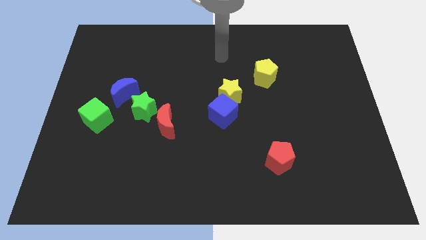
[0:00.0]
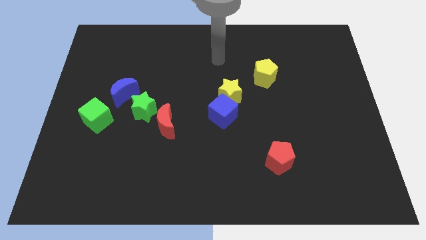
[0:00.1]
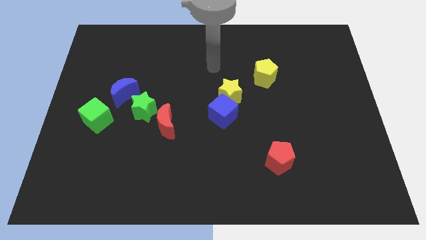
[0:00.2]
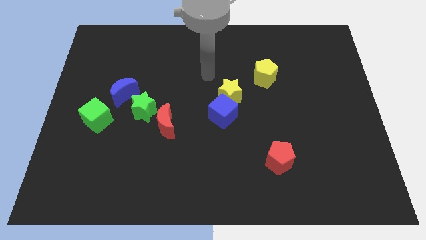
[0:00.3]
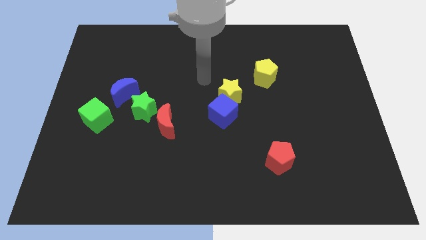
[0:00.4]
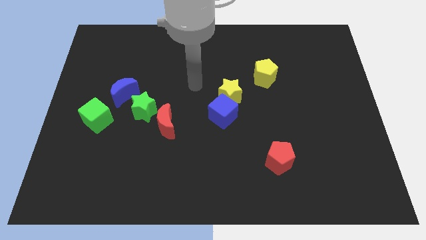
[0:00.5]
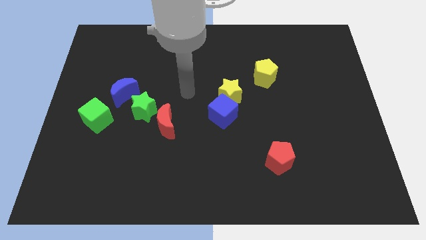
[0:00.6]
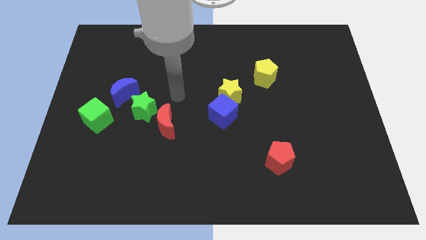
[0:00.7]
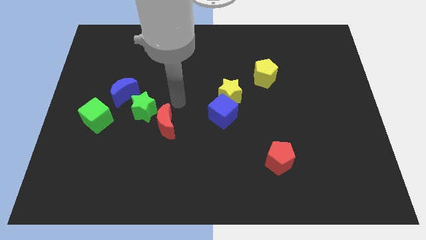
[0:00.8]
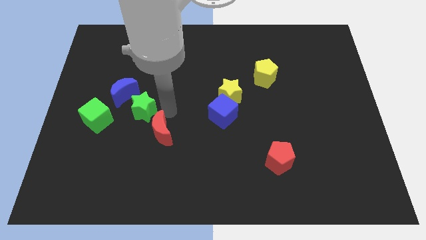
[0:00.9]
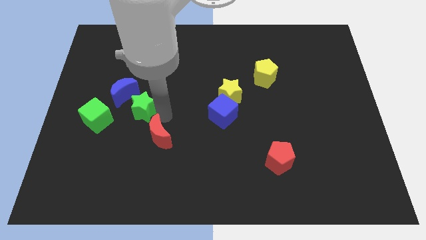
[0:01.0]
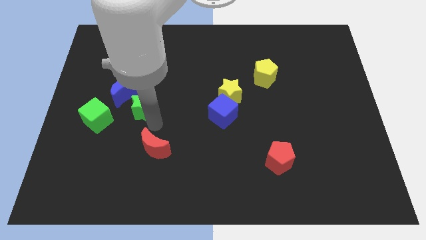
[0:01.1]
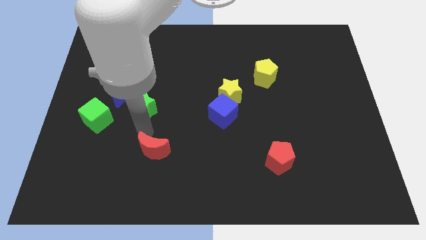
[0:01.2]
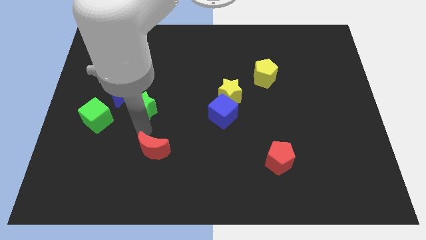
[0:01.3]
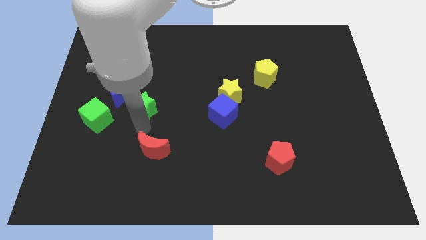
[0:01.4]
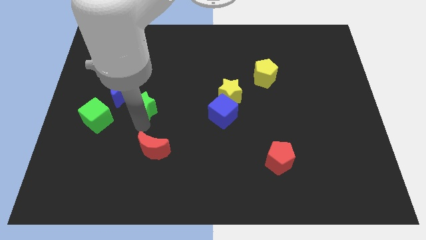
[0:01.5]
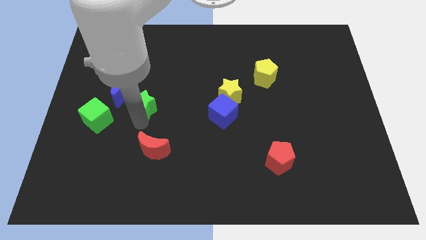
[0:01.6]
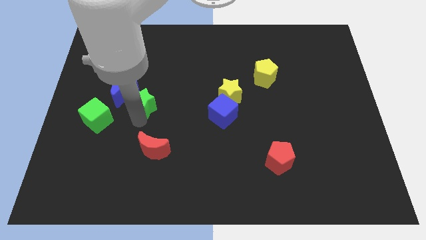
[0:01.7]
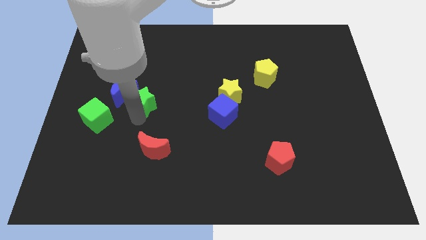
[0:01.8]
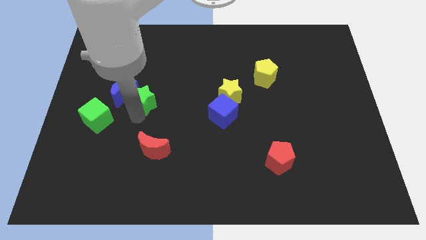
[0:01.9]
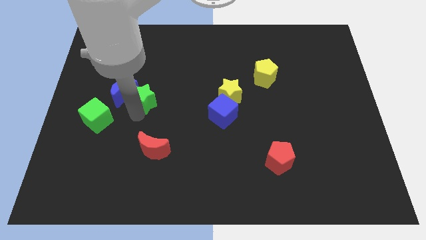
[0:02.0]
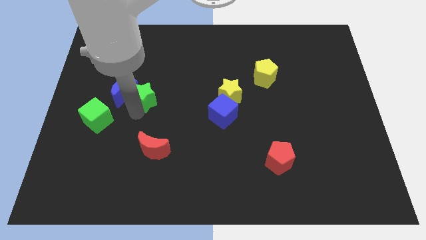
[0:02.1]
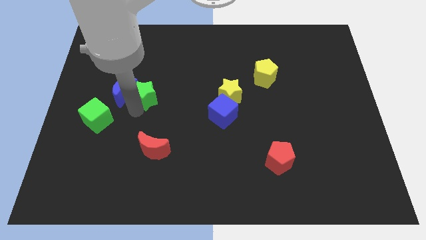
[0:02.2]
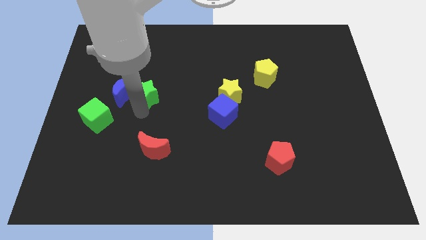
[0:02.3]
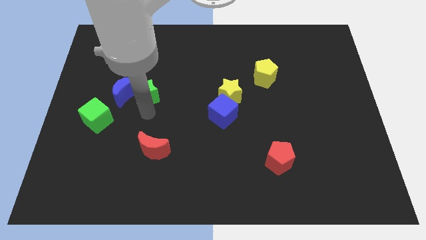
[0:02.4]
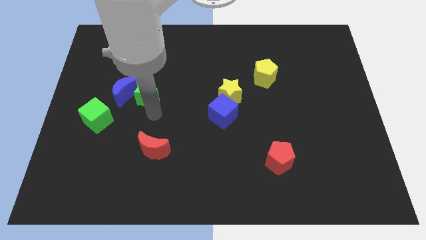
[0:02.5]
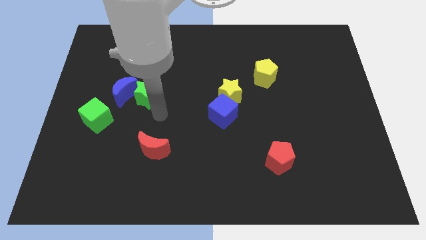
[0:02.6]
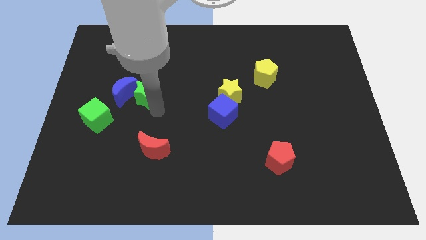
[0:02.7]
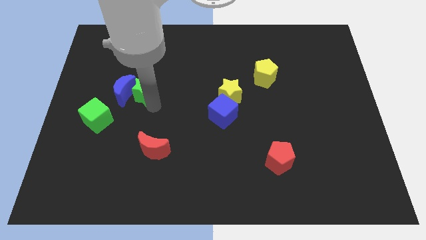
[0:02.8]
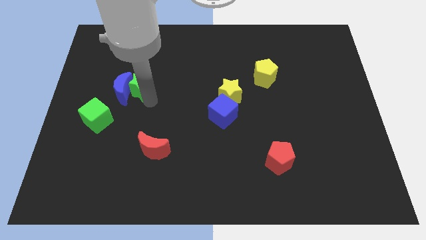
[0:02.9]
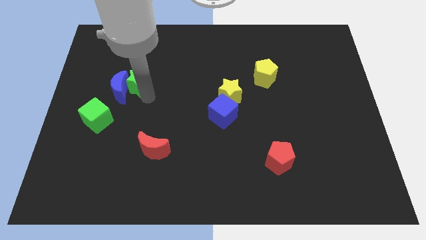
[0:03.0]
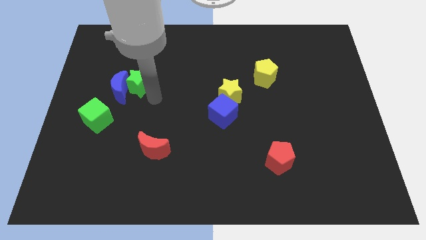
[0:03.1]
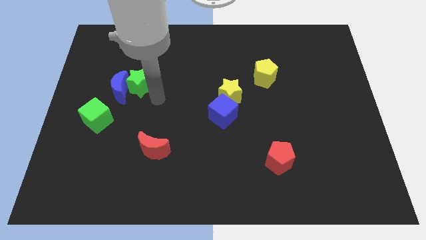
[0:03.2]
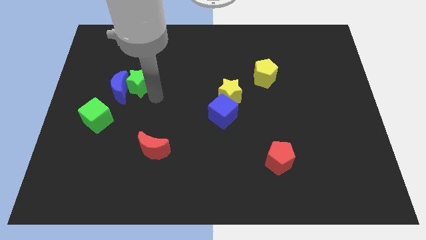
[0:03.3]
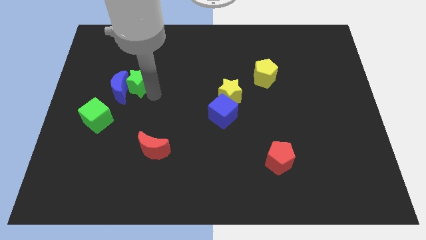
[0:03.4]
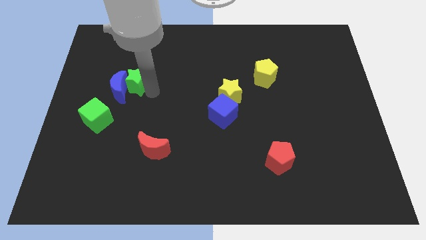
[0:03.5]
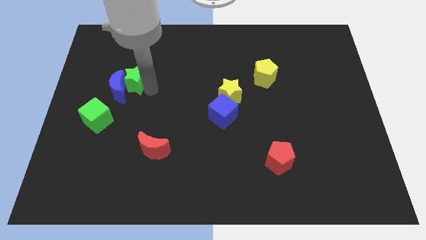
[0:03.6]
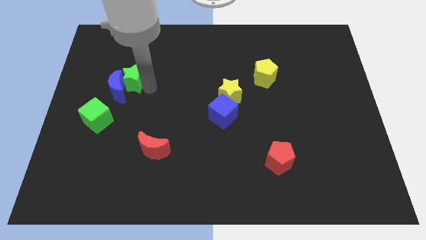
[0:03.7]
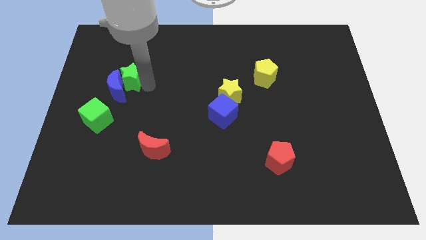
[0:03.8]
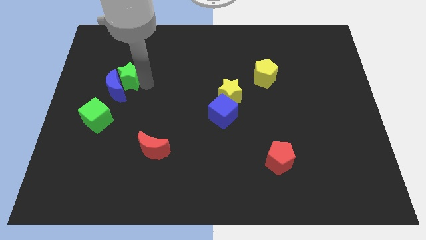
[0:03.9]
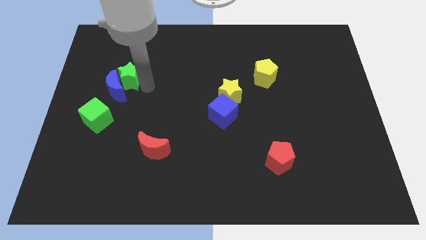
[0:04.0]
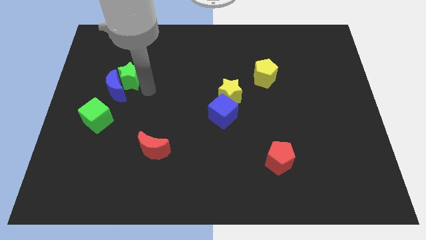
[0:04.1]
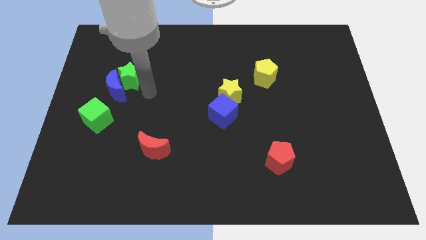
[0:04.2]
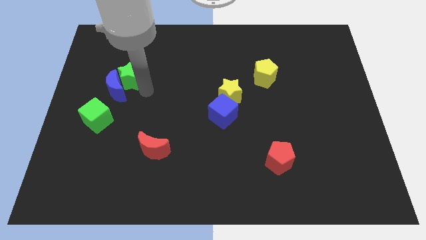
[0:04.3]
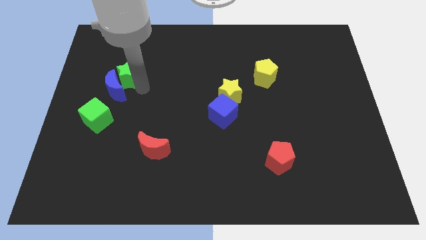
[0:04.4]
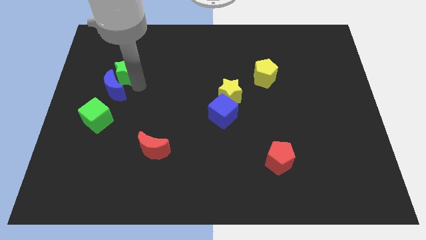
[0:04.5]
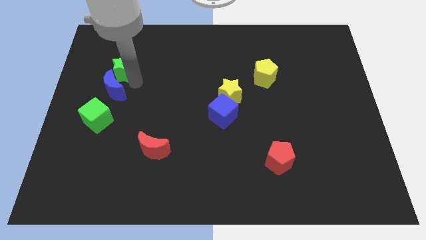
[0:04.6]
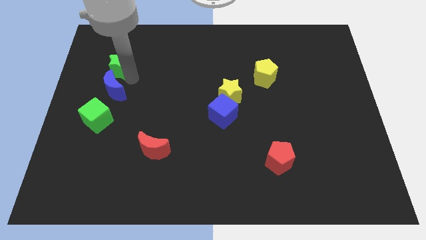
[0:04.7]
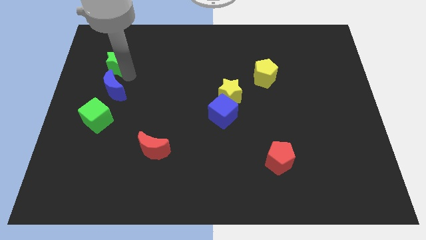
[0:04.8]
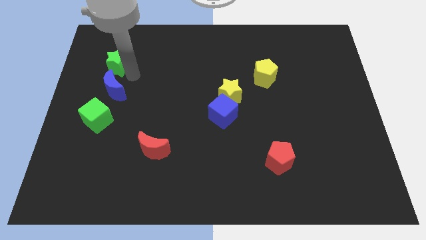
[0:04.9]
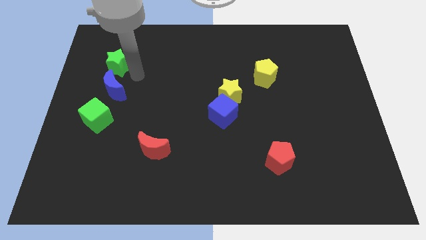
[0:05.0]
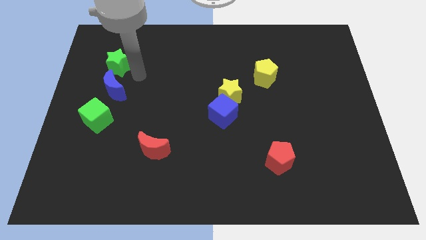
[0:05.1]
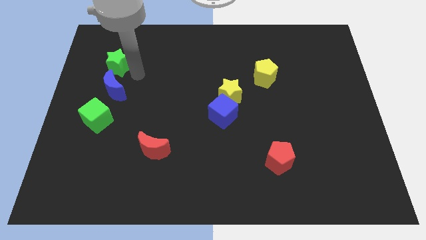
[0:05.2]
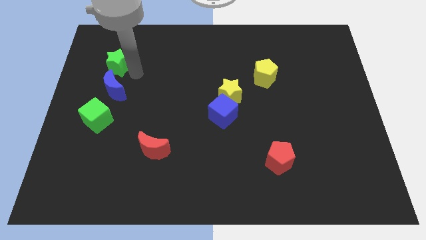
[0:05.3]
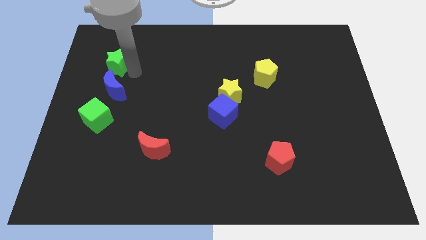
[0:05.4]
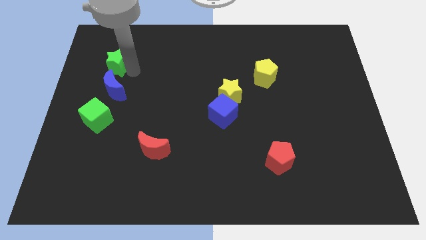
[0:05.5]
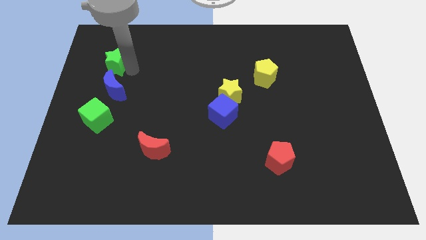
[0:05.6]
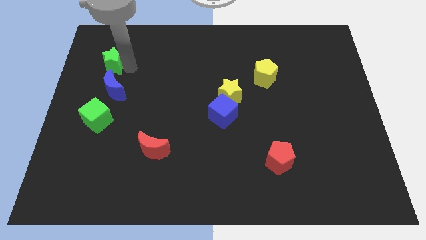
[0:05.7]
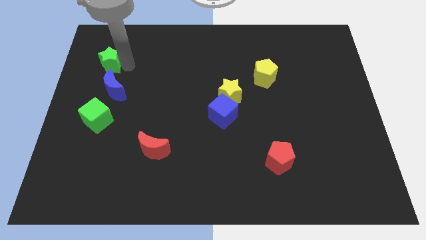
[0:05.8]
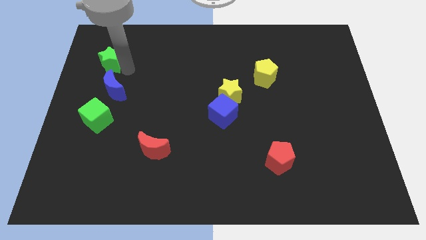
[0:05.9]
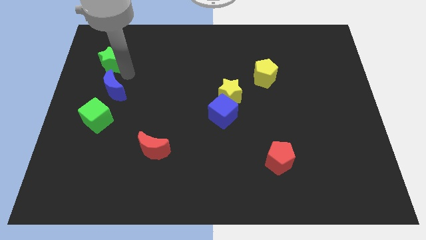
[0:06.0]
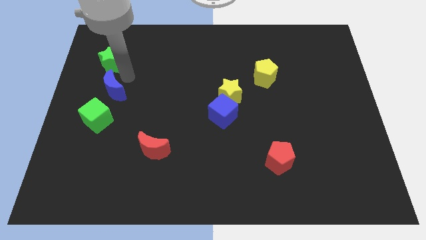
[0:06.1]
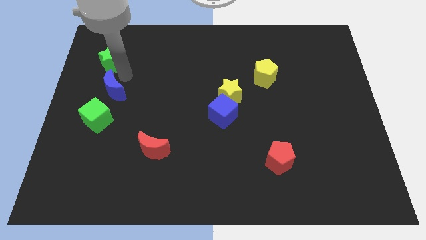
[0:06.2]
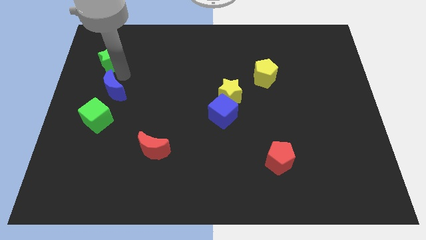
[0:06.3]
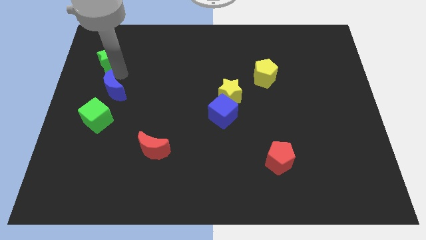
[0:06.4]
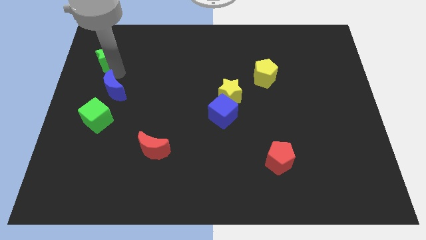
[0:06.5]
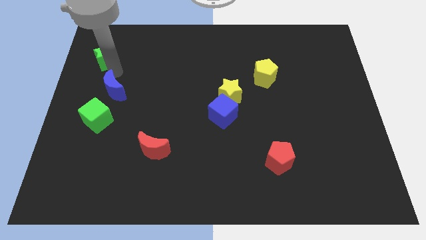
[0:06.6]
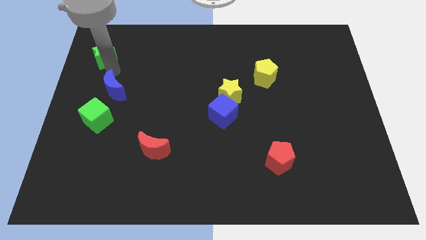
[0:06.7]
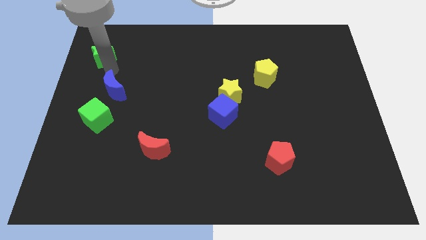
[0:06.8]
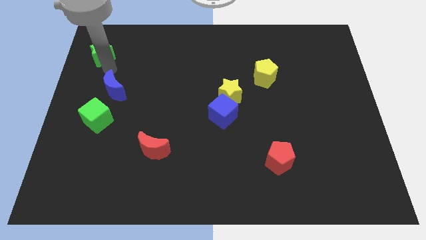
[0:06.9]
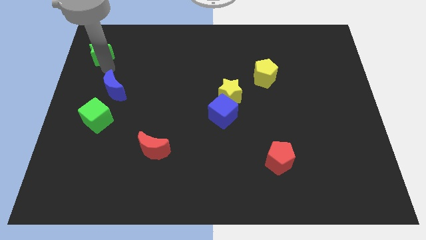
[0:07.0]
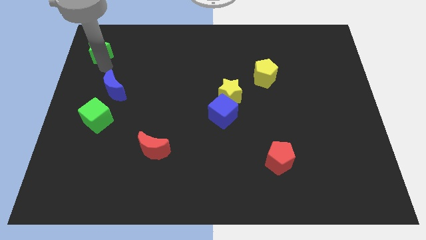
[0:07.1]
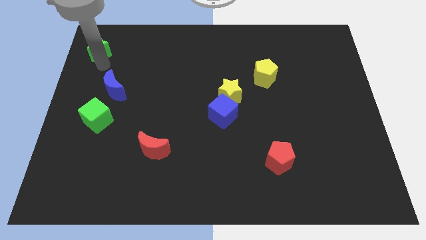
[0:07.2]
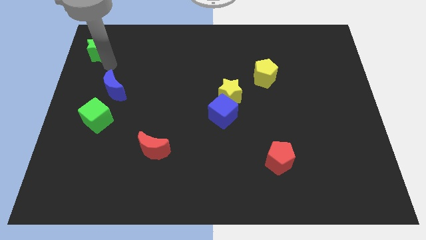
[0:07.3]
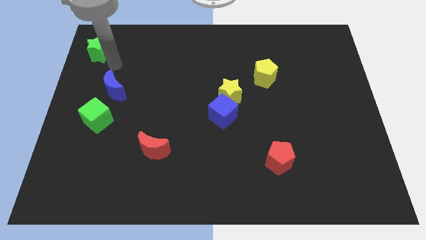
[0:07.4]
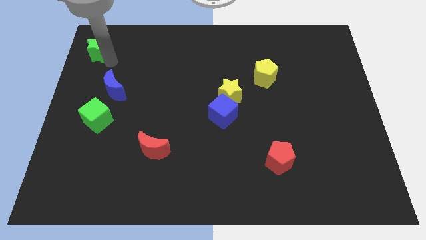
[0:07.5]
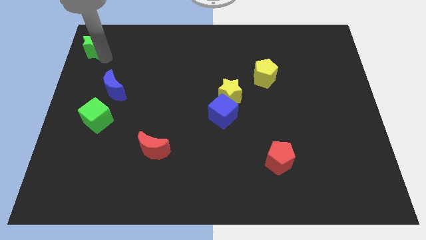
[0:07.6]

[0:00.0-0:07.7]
push the green star to the top left
